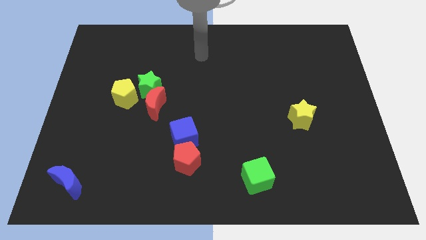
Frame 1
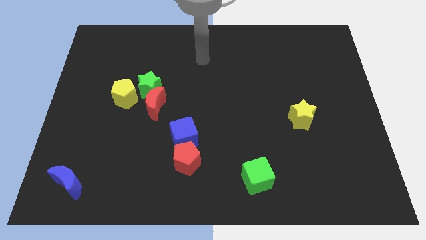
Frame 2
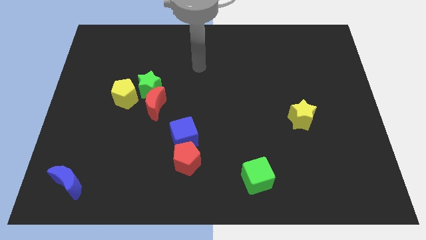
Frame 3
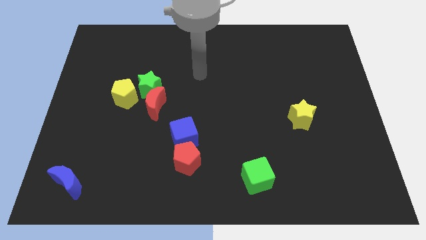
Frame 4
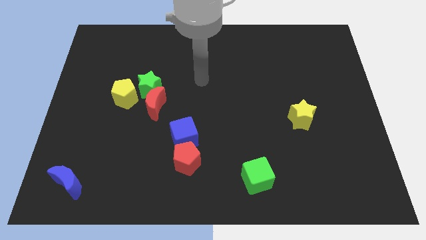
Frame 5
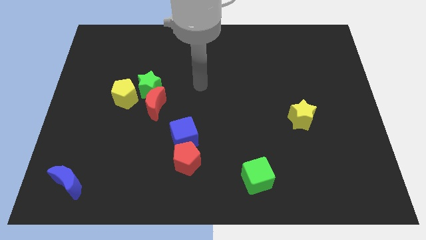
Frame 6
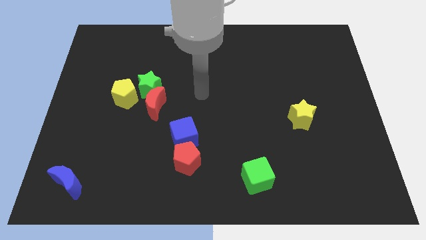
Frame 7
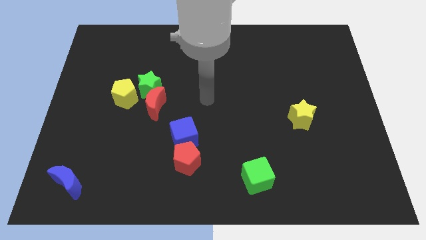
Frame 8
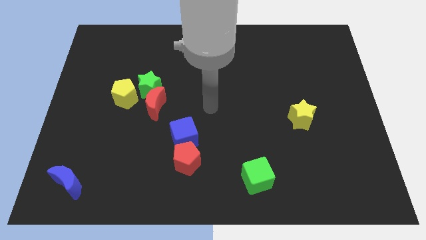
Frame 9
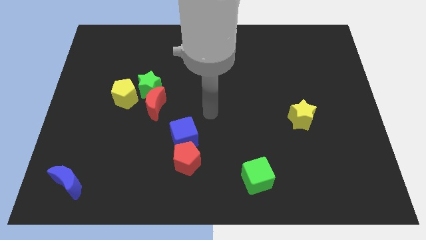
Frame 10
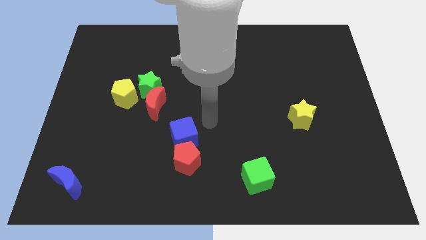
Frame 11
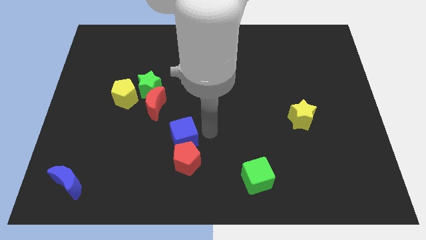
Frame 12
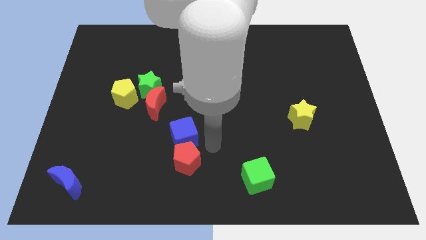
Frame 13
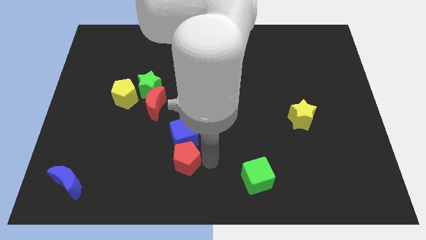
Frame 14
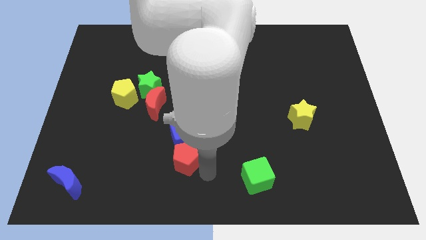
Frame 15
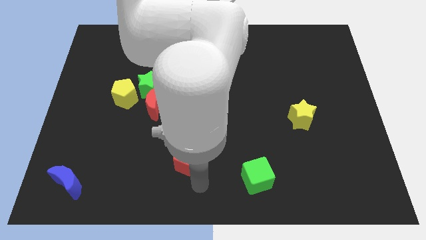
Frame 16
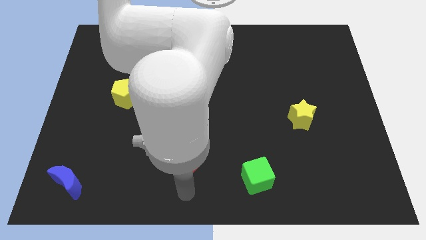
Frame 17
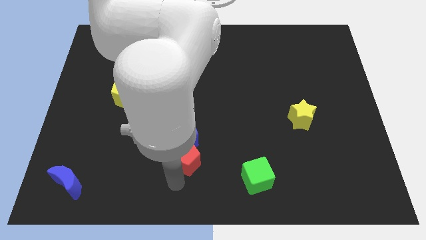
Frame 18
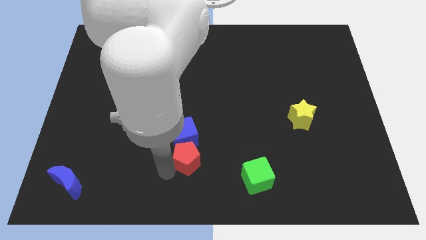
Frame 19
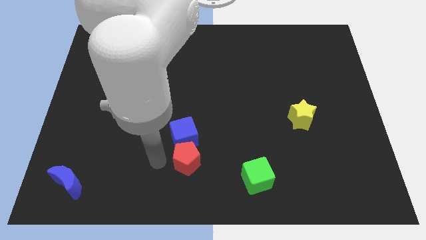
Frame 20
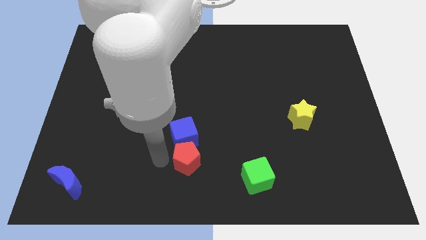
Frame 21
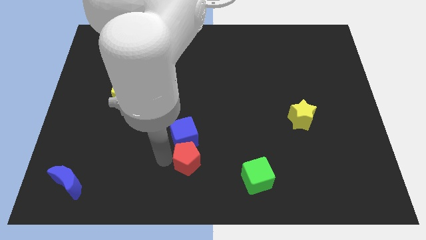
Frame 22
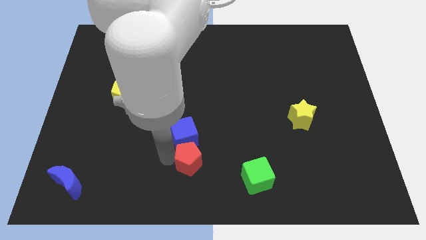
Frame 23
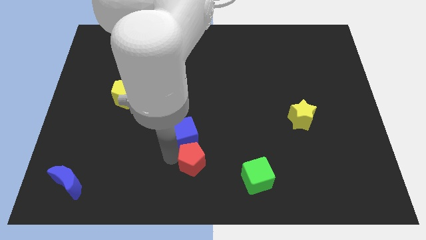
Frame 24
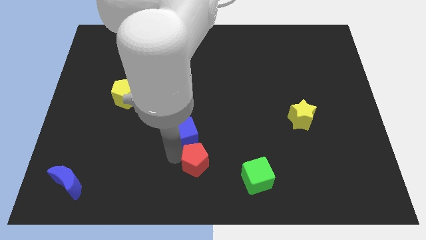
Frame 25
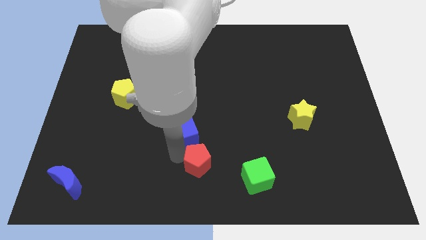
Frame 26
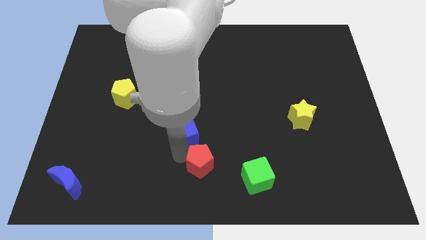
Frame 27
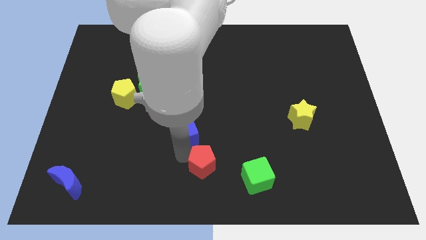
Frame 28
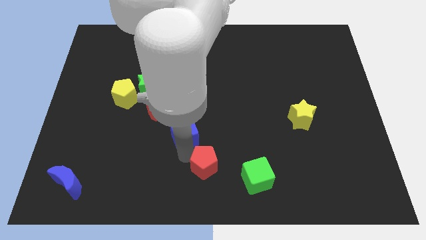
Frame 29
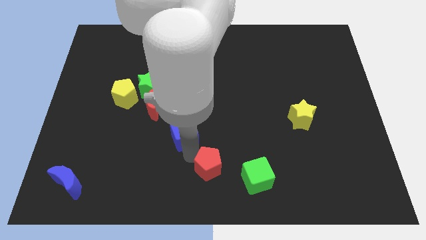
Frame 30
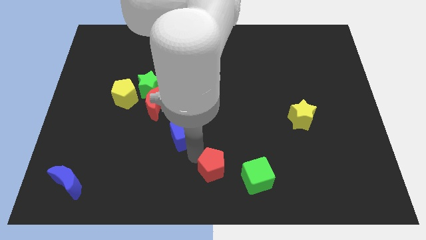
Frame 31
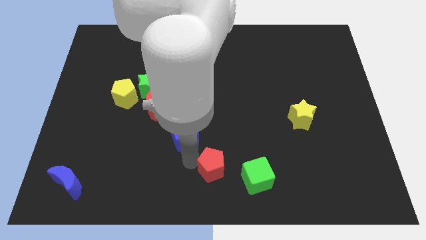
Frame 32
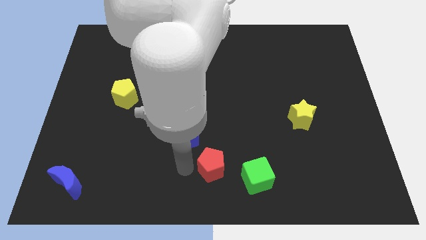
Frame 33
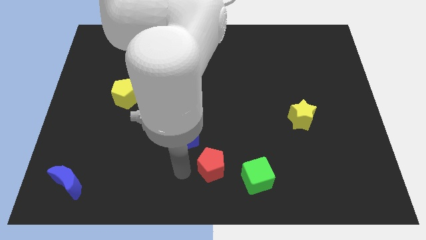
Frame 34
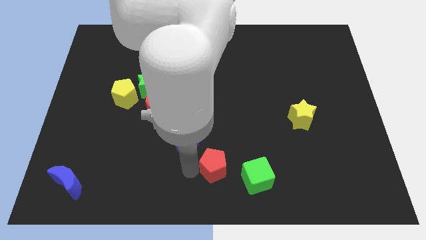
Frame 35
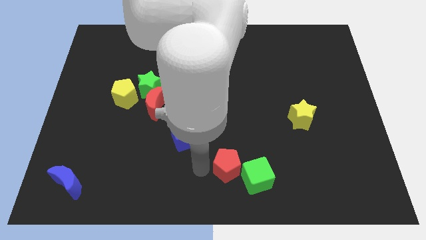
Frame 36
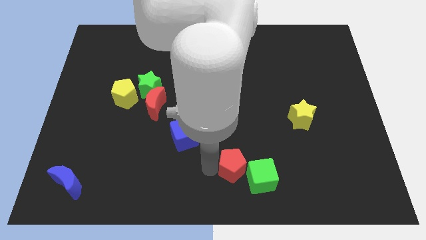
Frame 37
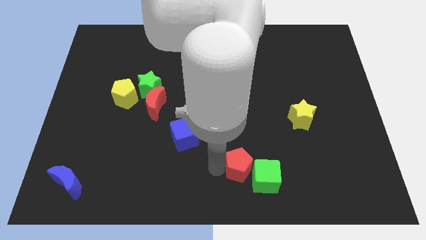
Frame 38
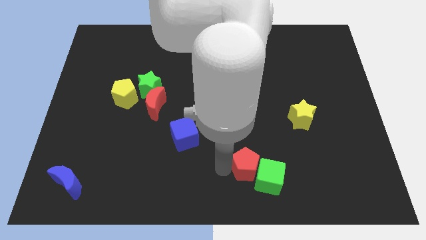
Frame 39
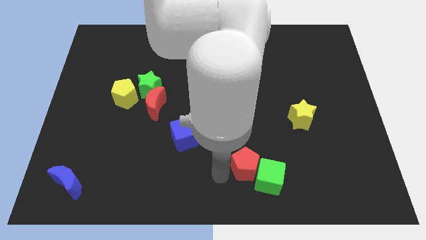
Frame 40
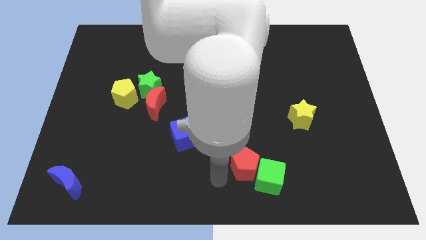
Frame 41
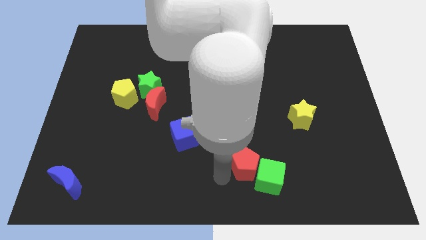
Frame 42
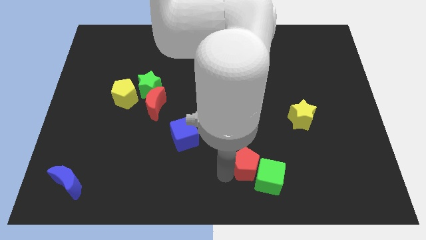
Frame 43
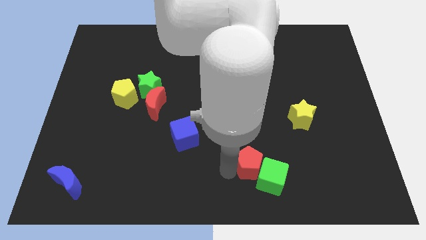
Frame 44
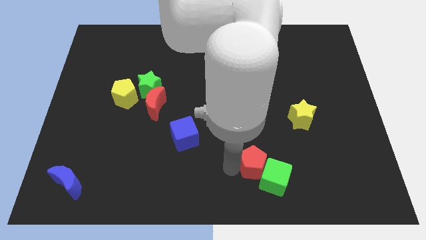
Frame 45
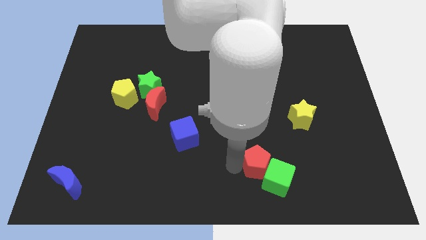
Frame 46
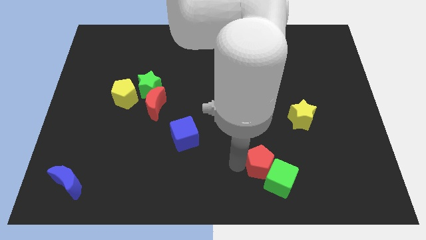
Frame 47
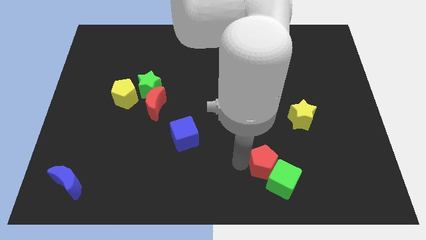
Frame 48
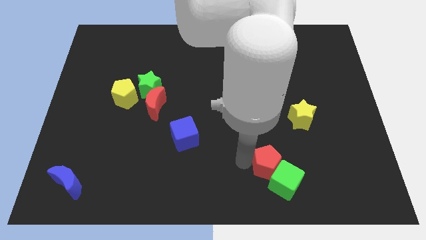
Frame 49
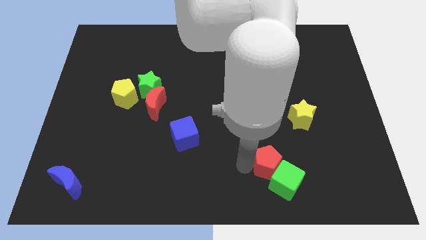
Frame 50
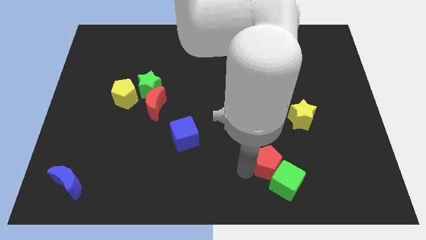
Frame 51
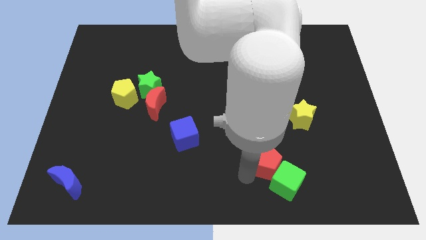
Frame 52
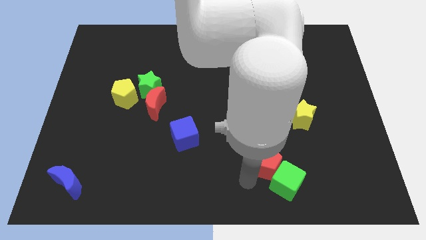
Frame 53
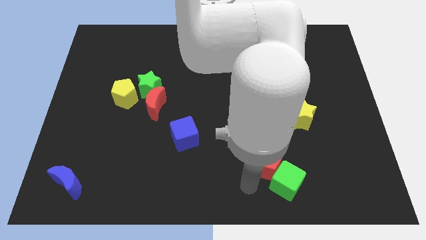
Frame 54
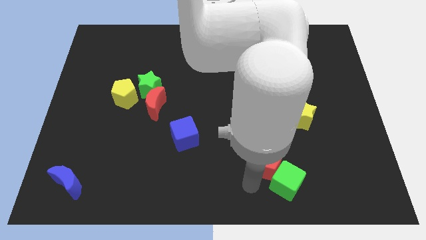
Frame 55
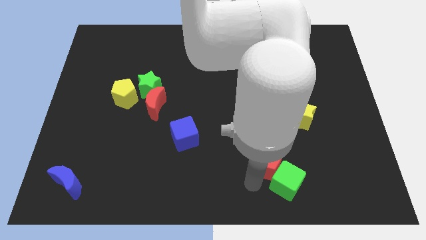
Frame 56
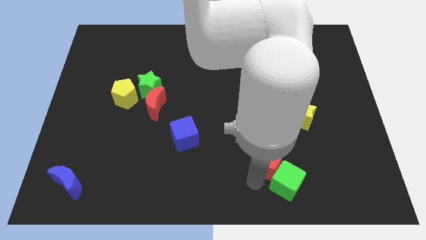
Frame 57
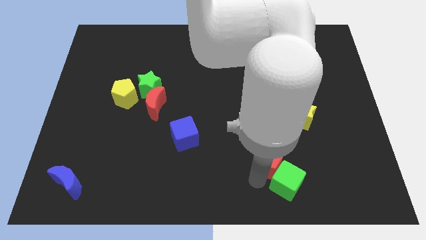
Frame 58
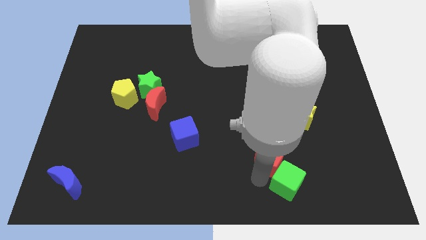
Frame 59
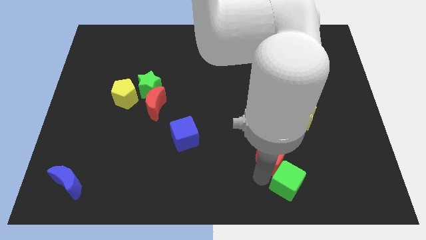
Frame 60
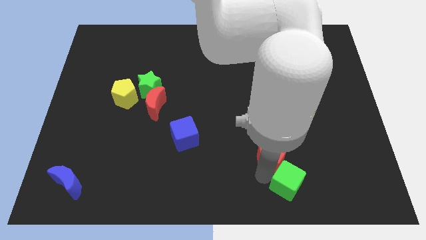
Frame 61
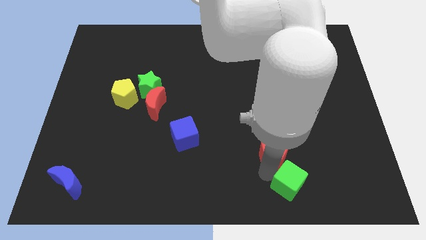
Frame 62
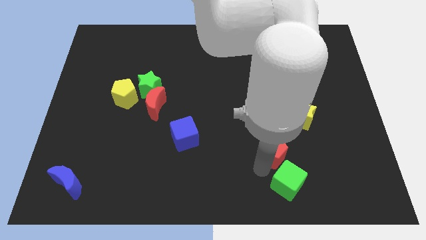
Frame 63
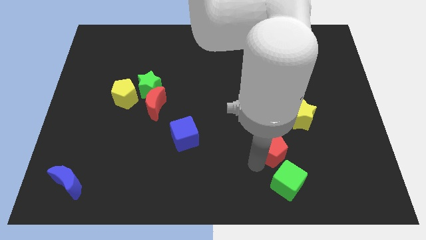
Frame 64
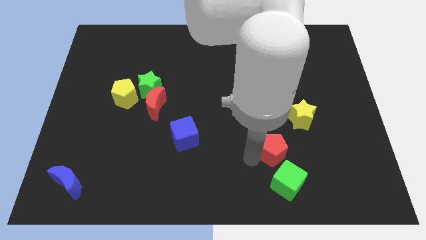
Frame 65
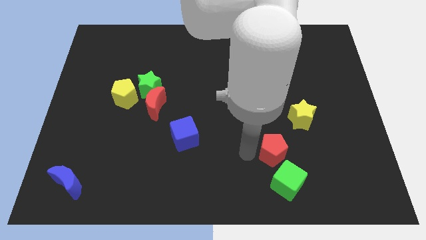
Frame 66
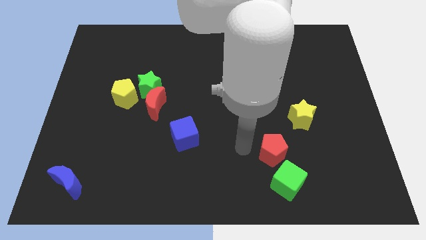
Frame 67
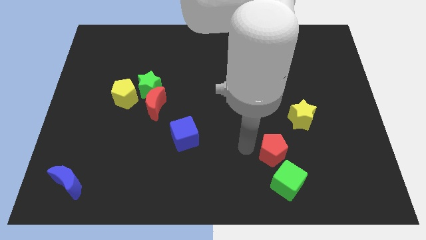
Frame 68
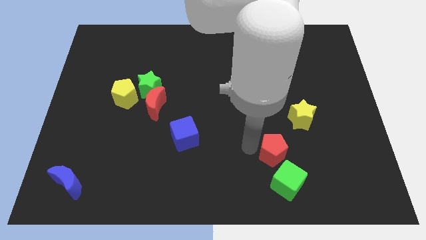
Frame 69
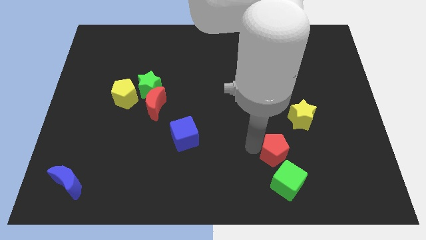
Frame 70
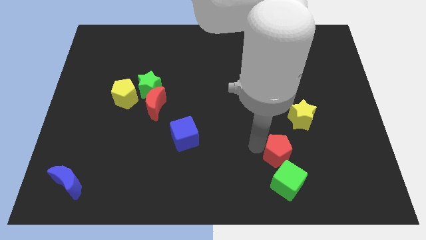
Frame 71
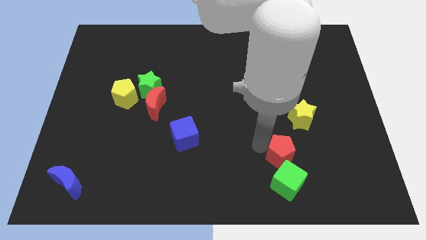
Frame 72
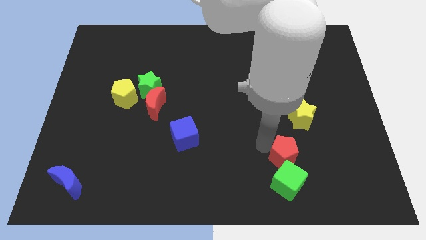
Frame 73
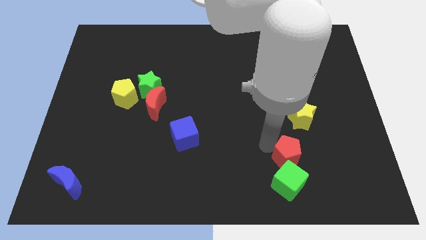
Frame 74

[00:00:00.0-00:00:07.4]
move the red pentagon to the bottom of the yellow star

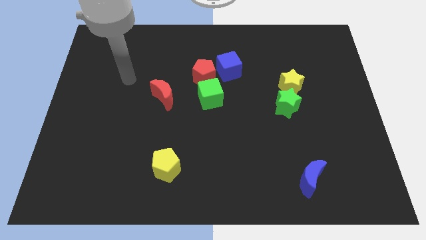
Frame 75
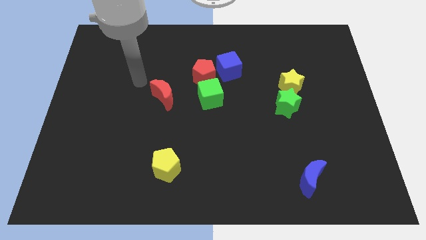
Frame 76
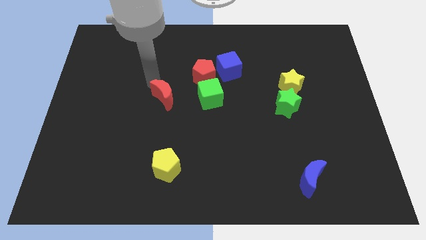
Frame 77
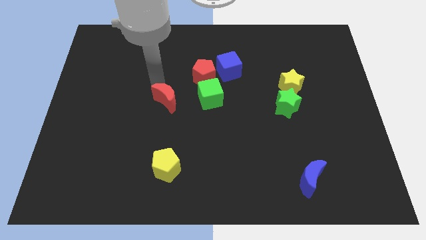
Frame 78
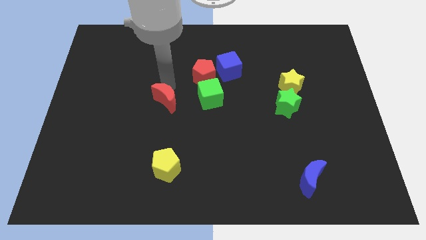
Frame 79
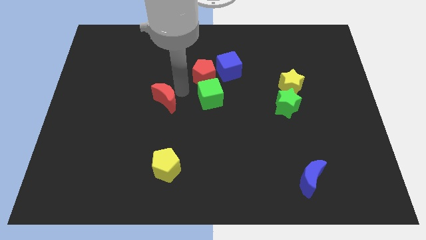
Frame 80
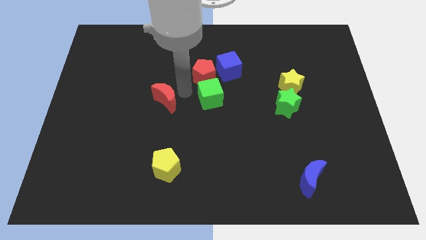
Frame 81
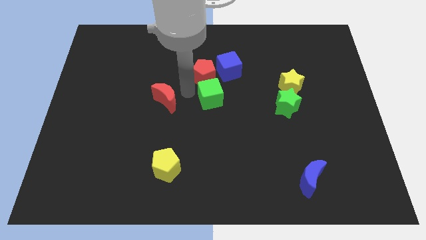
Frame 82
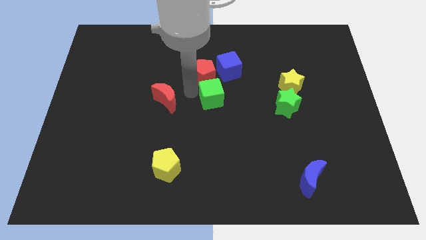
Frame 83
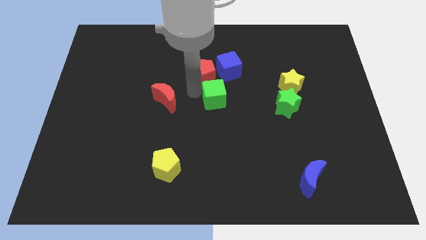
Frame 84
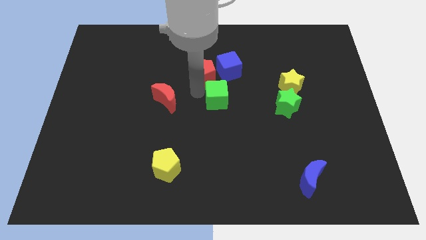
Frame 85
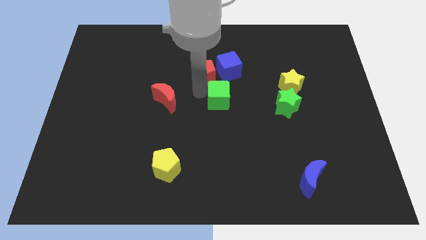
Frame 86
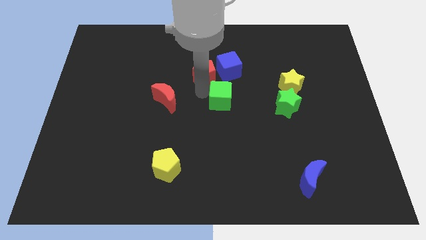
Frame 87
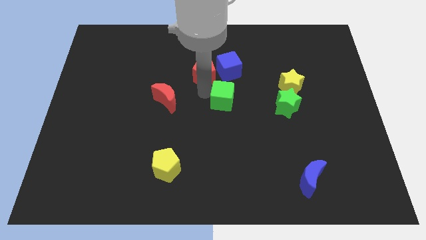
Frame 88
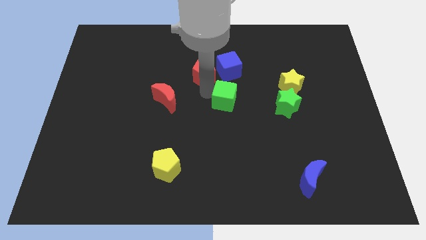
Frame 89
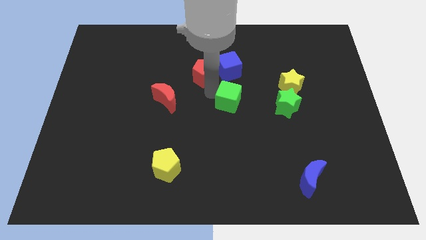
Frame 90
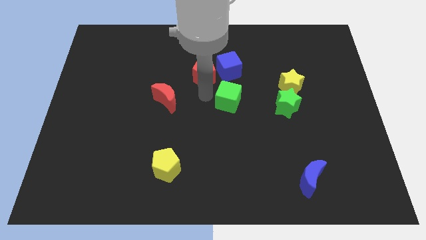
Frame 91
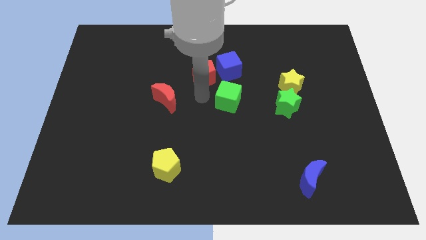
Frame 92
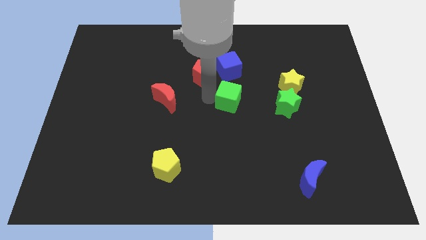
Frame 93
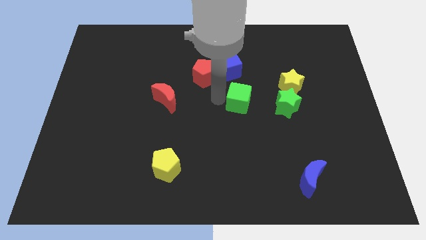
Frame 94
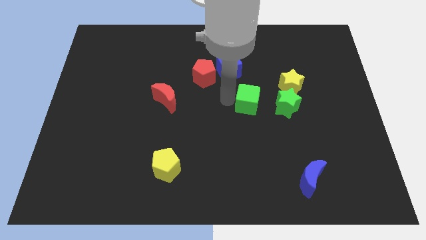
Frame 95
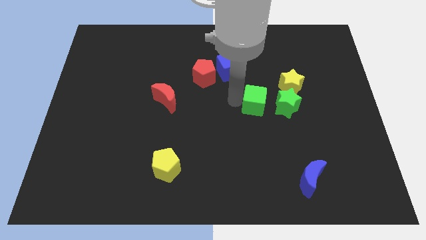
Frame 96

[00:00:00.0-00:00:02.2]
push the green cube diagonally down and to the left of the yellow star
